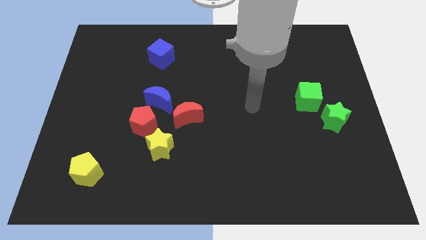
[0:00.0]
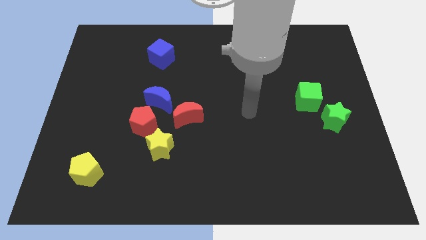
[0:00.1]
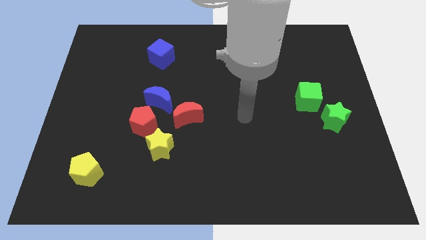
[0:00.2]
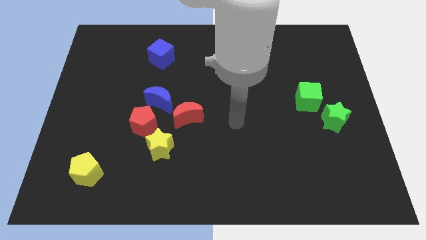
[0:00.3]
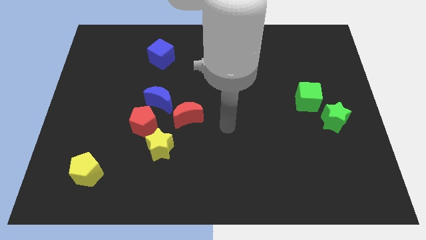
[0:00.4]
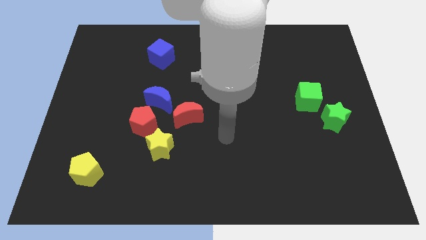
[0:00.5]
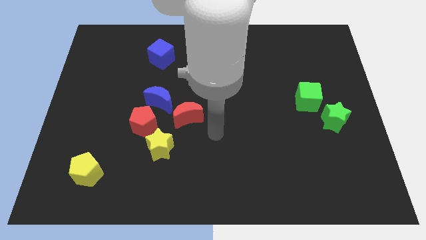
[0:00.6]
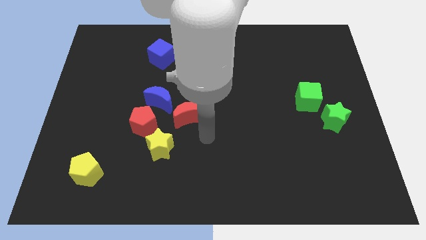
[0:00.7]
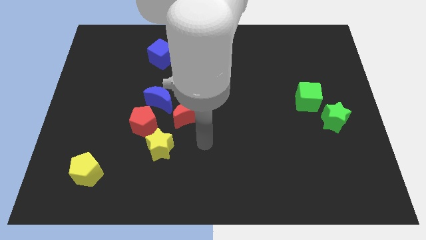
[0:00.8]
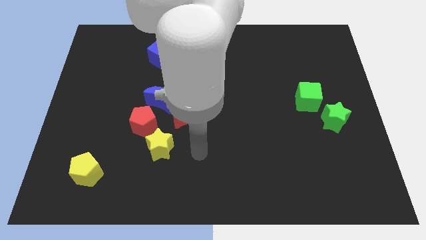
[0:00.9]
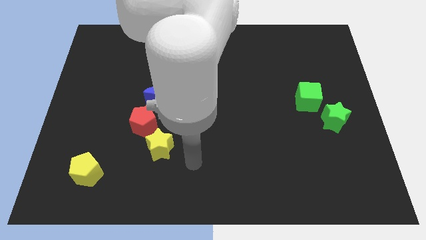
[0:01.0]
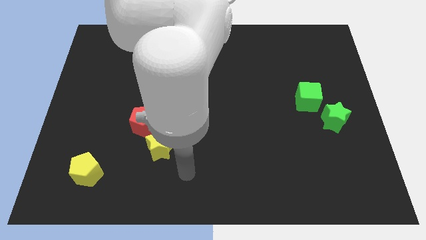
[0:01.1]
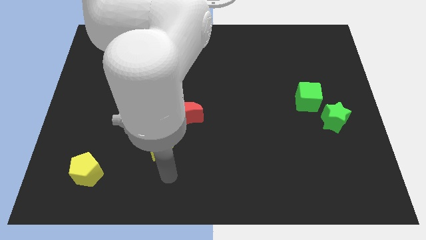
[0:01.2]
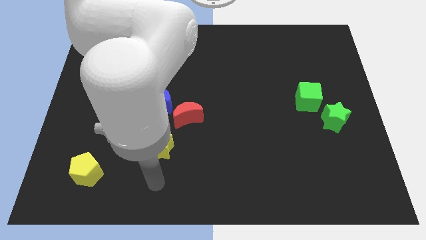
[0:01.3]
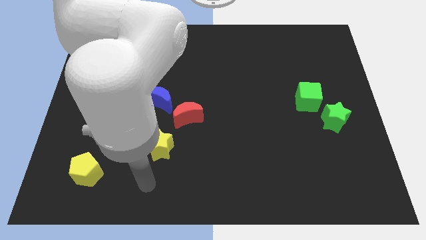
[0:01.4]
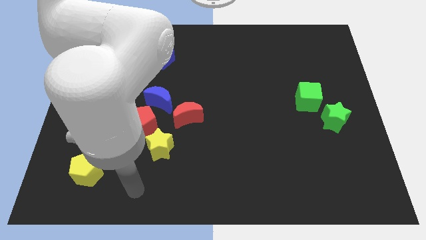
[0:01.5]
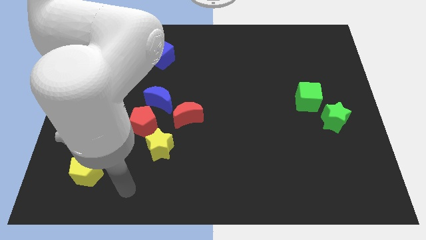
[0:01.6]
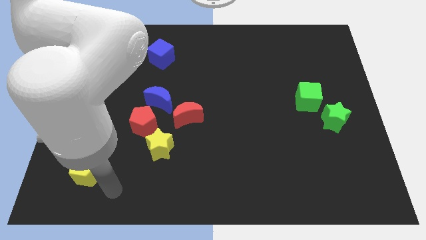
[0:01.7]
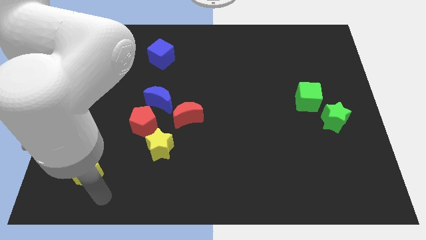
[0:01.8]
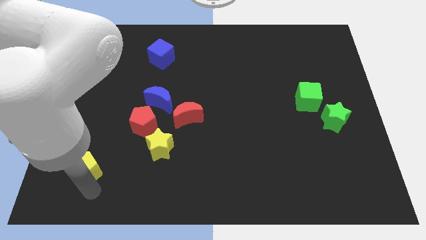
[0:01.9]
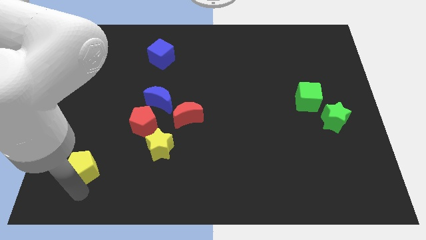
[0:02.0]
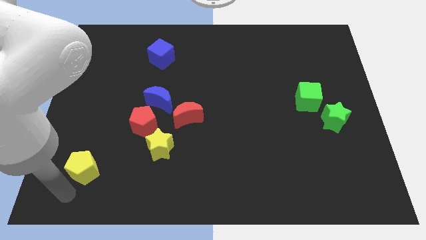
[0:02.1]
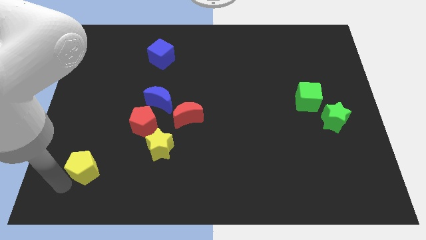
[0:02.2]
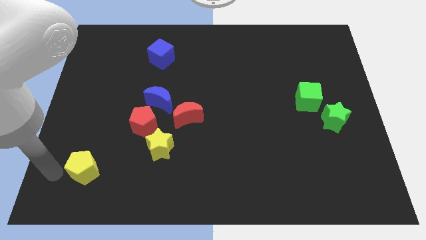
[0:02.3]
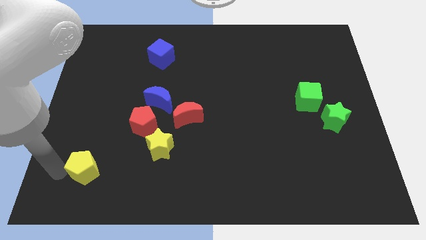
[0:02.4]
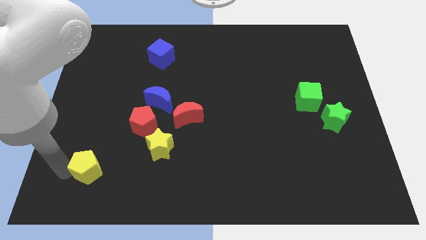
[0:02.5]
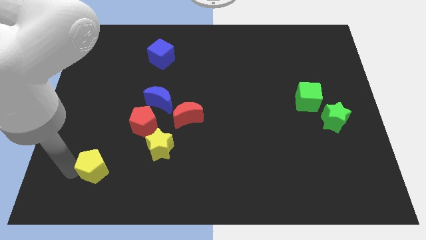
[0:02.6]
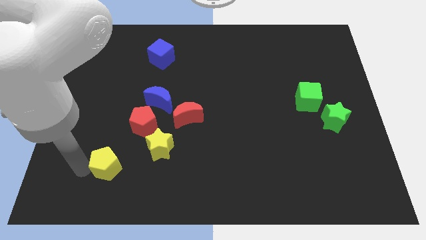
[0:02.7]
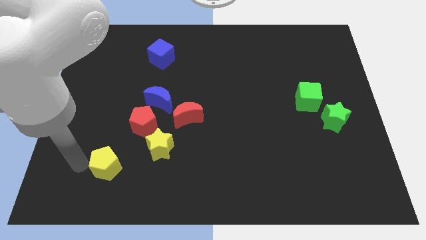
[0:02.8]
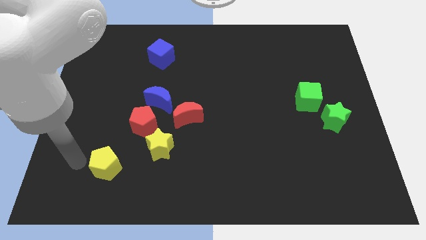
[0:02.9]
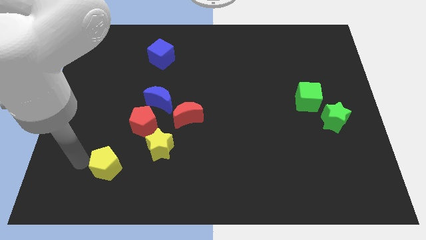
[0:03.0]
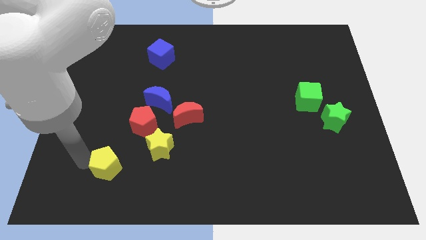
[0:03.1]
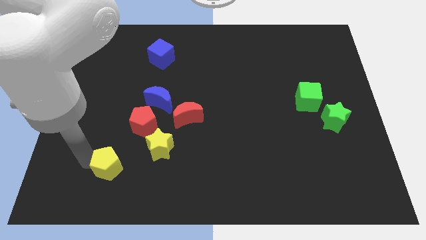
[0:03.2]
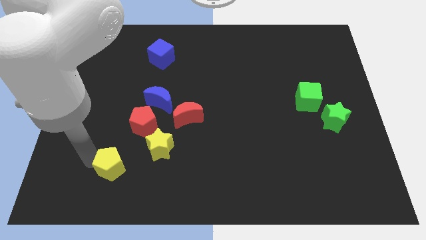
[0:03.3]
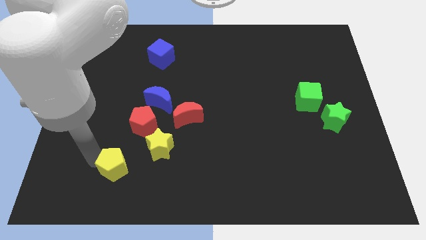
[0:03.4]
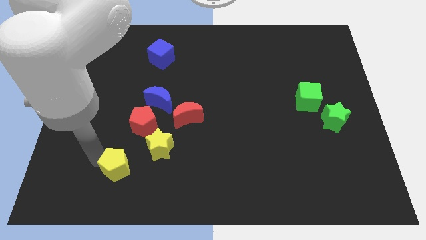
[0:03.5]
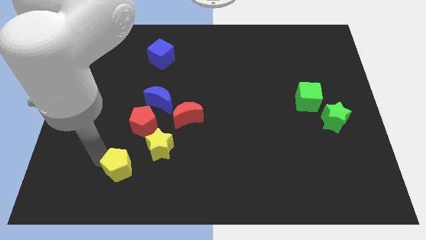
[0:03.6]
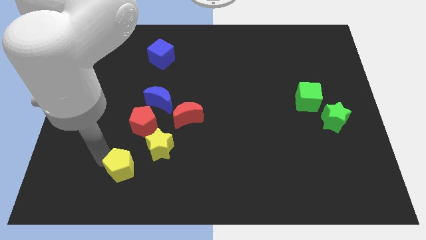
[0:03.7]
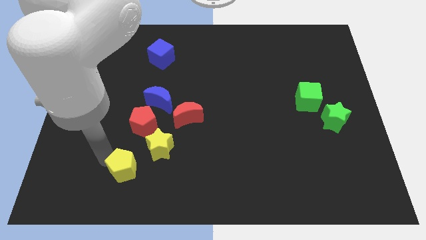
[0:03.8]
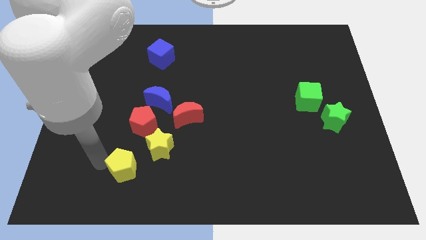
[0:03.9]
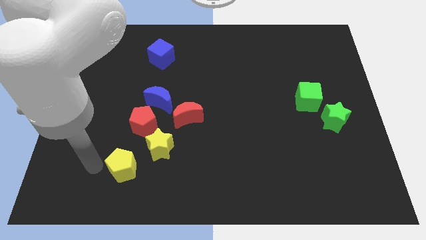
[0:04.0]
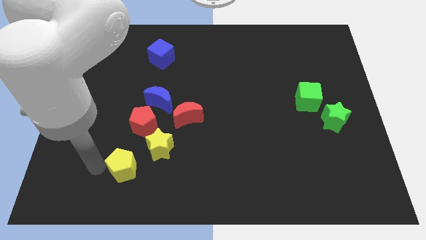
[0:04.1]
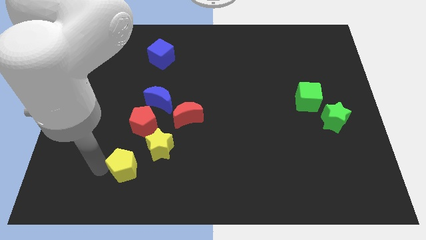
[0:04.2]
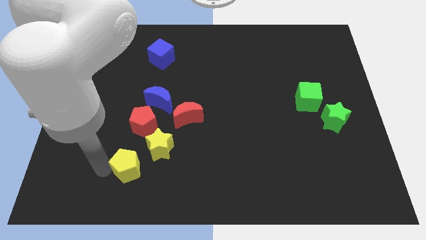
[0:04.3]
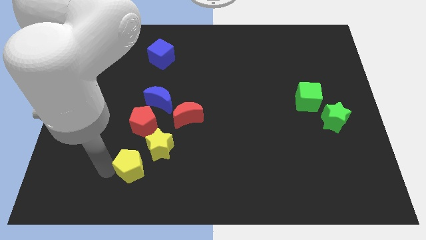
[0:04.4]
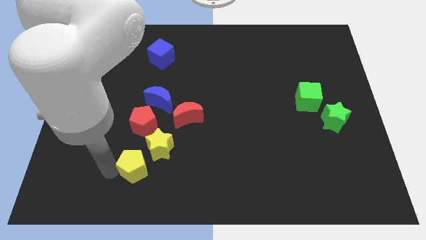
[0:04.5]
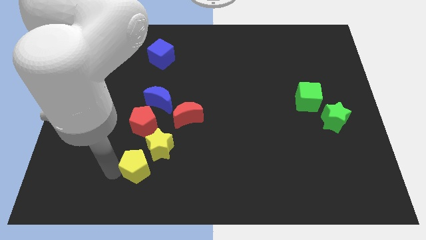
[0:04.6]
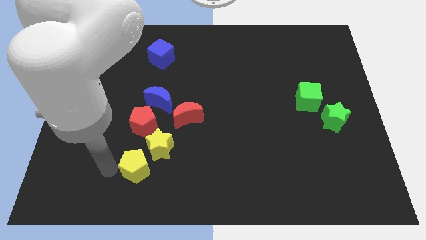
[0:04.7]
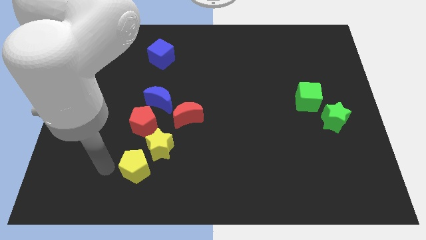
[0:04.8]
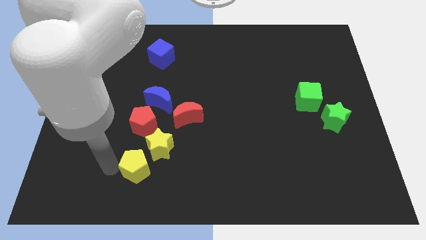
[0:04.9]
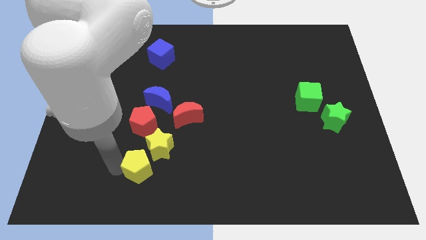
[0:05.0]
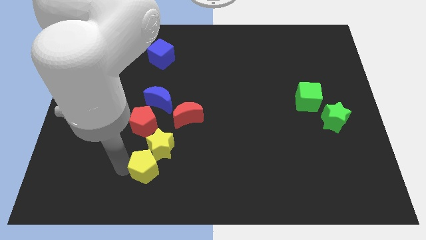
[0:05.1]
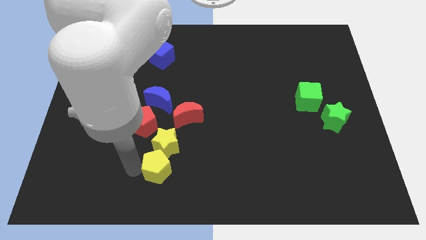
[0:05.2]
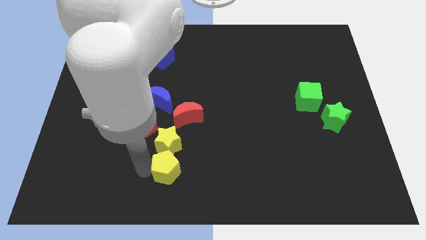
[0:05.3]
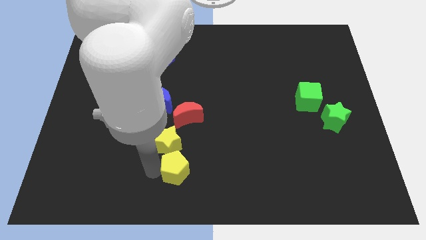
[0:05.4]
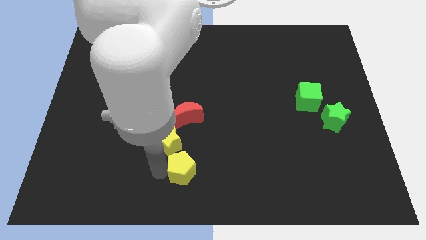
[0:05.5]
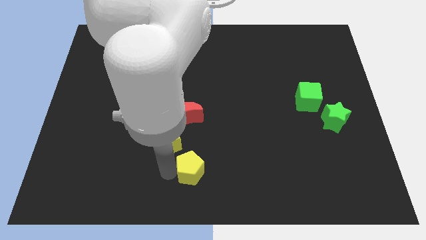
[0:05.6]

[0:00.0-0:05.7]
push the yellow pentagon right

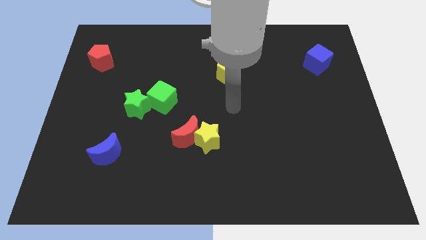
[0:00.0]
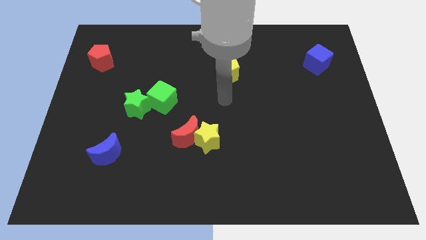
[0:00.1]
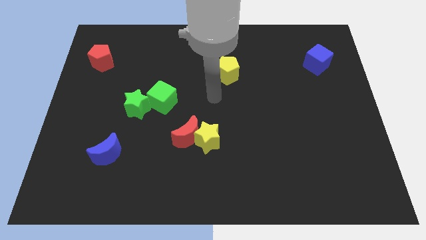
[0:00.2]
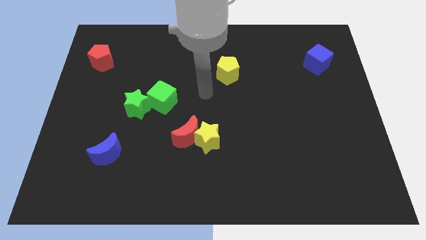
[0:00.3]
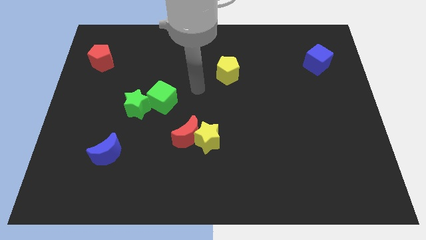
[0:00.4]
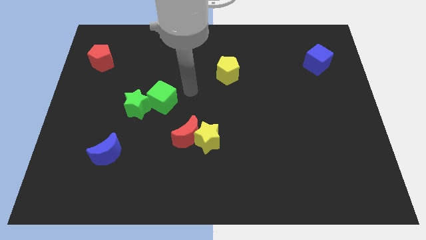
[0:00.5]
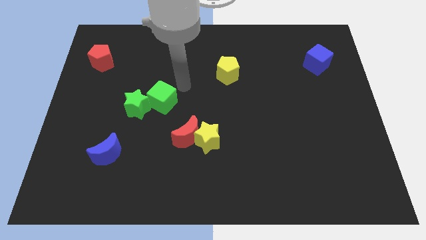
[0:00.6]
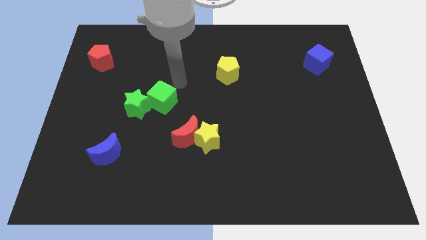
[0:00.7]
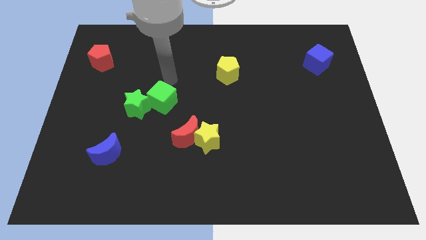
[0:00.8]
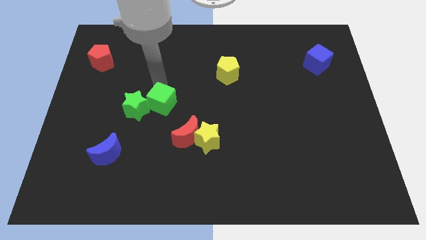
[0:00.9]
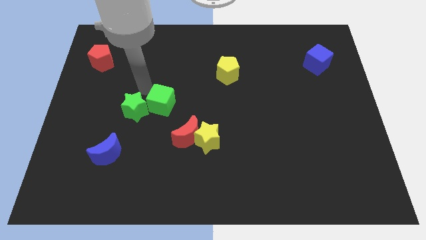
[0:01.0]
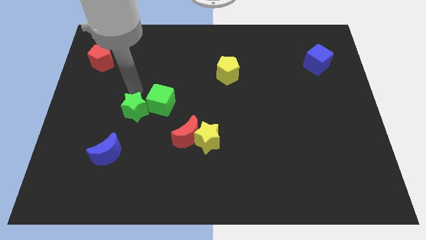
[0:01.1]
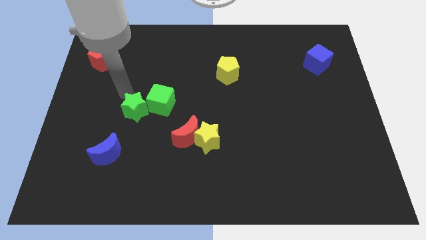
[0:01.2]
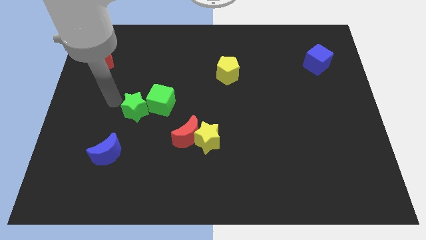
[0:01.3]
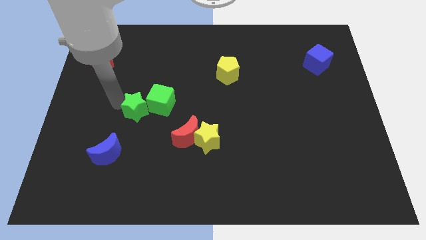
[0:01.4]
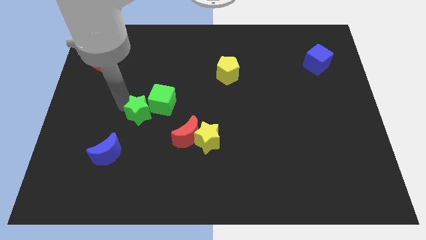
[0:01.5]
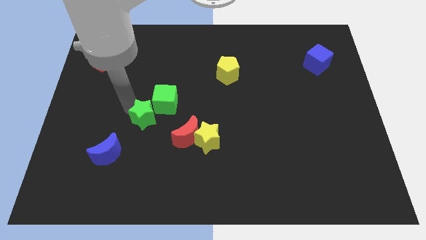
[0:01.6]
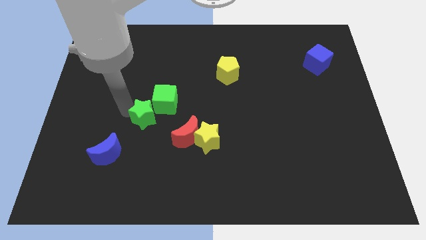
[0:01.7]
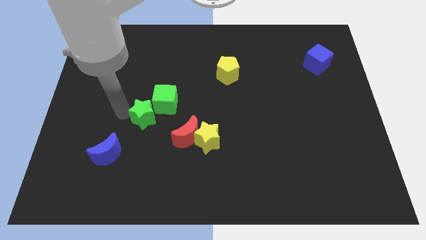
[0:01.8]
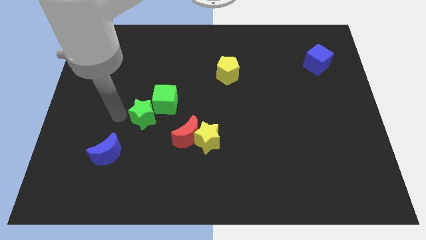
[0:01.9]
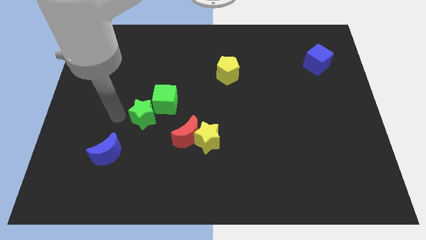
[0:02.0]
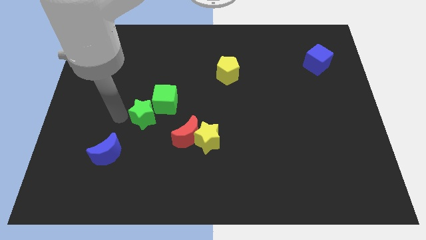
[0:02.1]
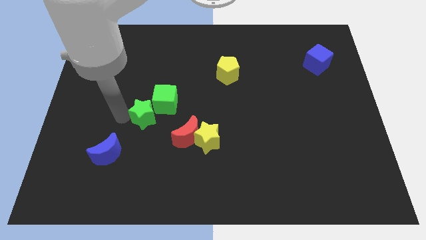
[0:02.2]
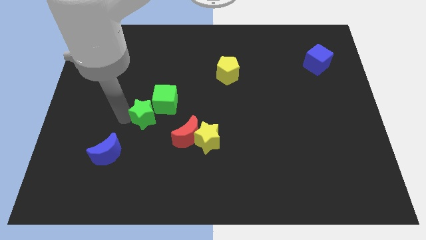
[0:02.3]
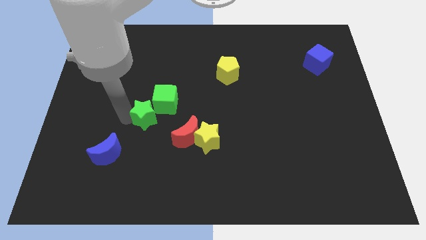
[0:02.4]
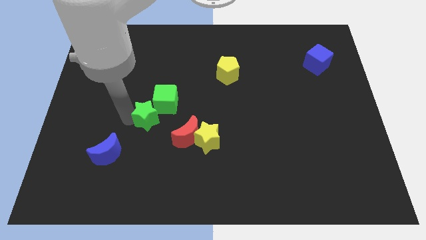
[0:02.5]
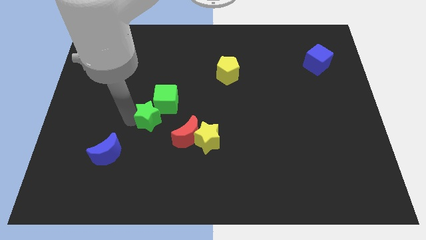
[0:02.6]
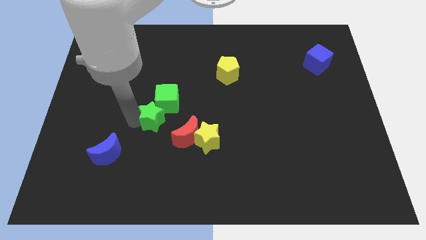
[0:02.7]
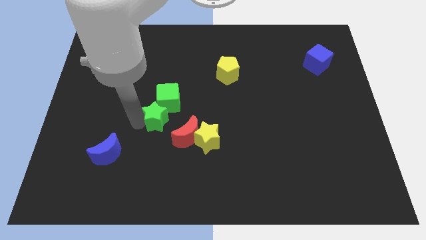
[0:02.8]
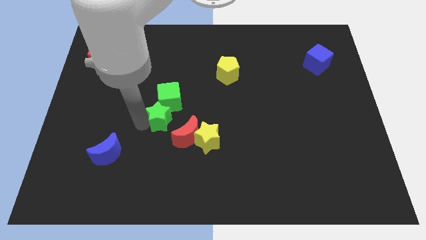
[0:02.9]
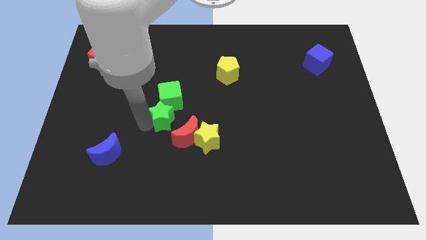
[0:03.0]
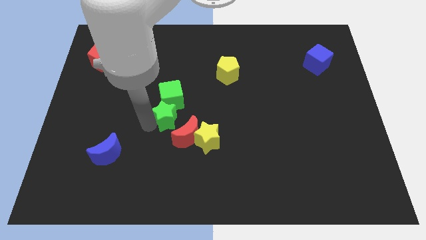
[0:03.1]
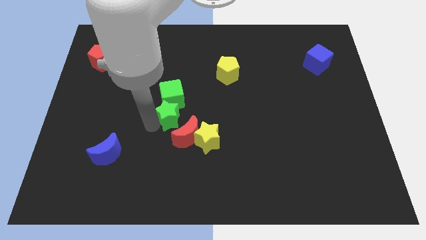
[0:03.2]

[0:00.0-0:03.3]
slightly slide the green star right
